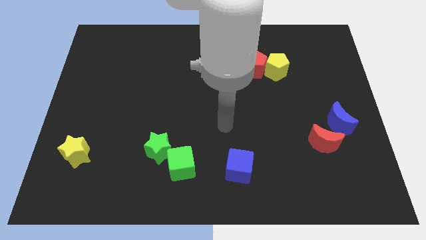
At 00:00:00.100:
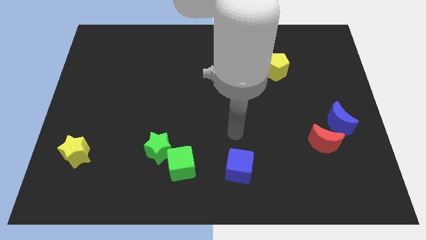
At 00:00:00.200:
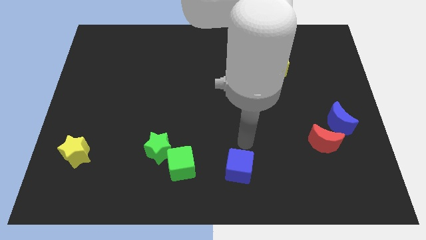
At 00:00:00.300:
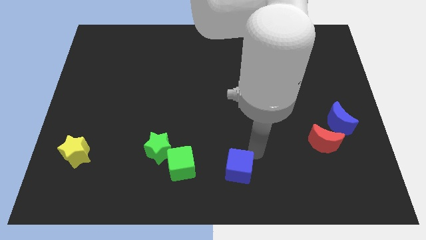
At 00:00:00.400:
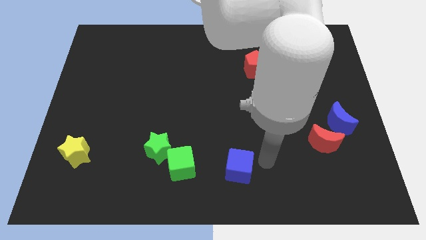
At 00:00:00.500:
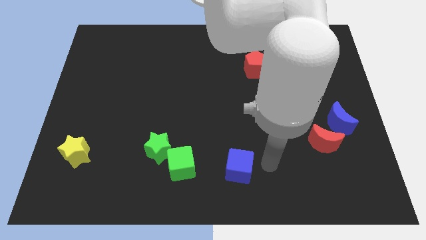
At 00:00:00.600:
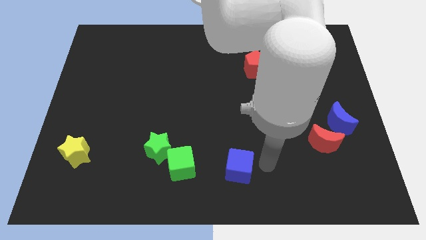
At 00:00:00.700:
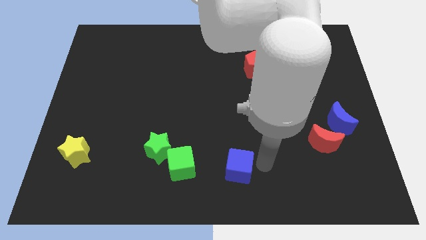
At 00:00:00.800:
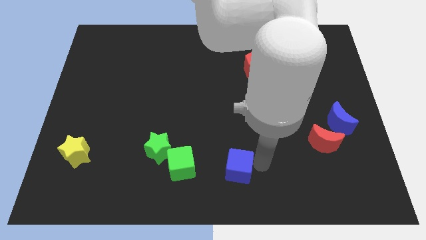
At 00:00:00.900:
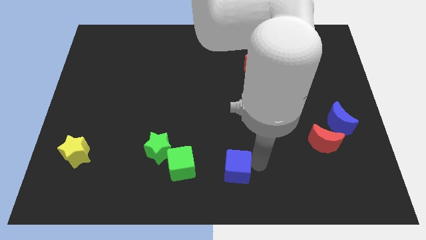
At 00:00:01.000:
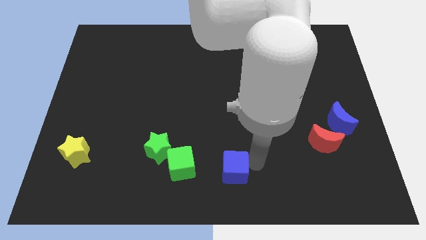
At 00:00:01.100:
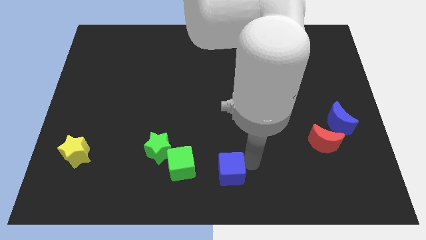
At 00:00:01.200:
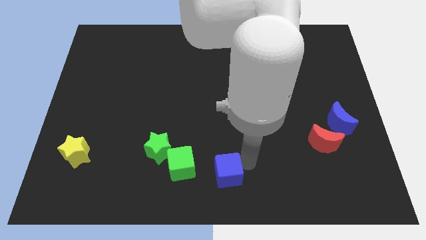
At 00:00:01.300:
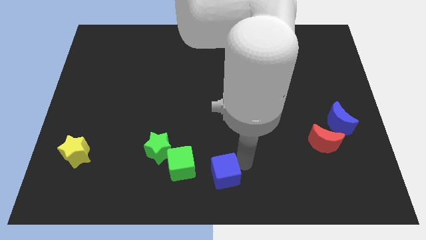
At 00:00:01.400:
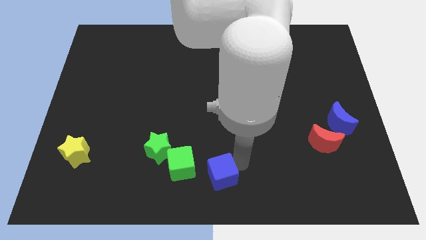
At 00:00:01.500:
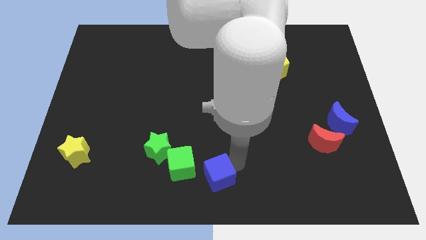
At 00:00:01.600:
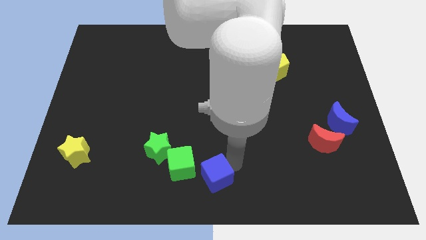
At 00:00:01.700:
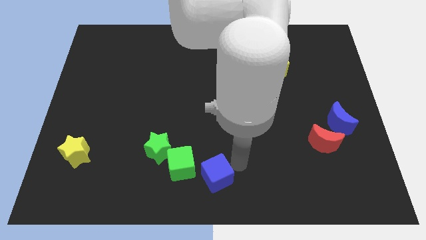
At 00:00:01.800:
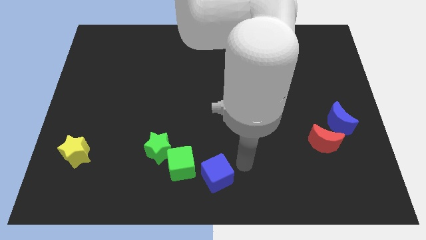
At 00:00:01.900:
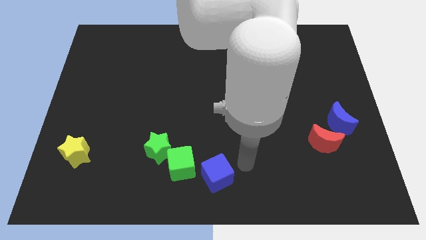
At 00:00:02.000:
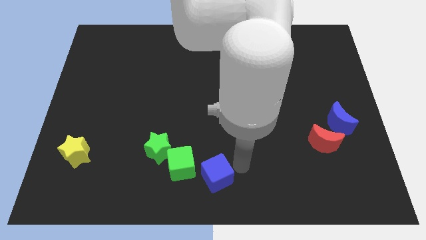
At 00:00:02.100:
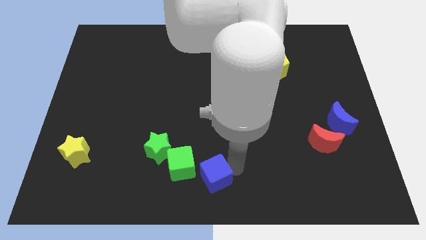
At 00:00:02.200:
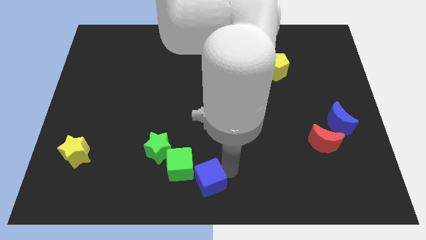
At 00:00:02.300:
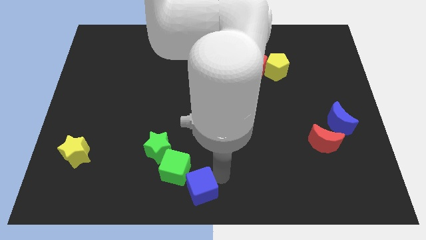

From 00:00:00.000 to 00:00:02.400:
slightly push the blue cube left

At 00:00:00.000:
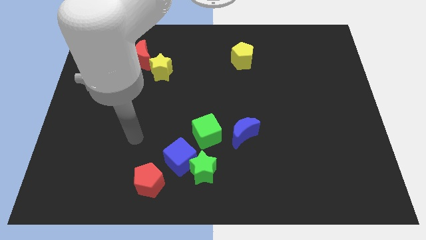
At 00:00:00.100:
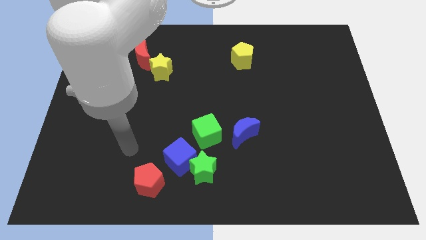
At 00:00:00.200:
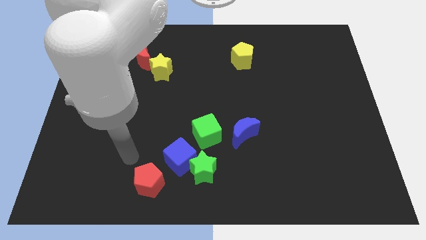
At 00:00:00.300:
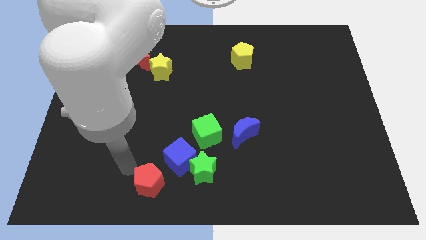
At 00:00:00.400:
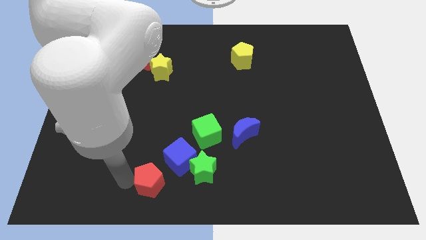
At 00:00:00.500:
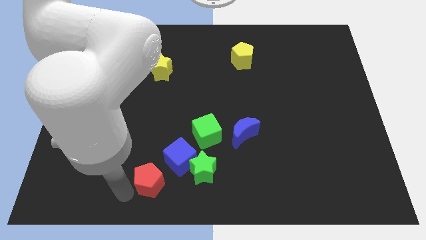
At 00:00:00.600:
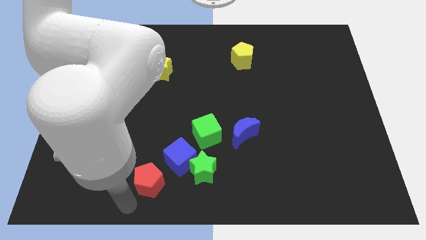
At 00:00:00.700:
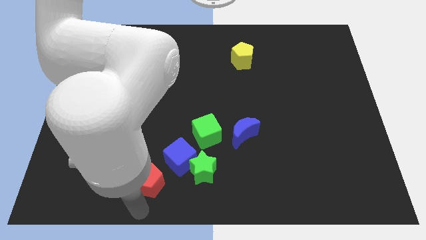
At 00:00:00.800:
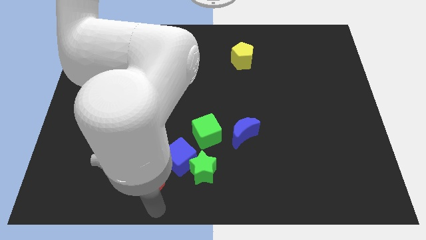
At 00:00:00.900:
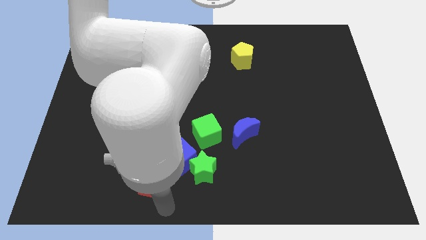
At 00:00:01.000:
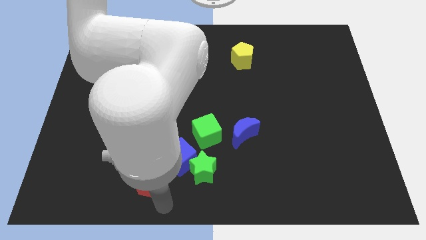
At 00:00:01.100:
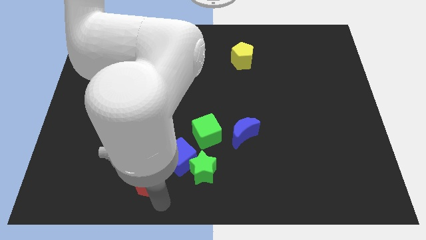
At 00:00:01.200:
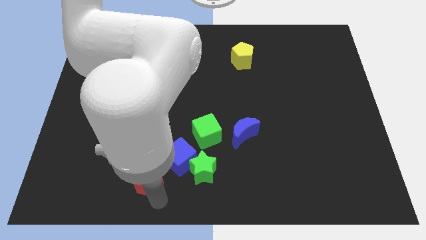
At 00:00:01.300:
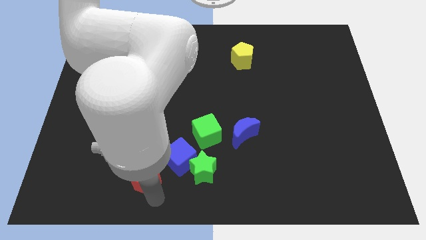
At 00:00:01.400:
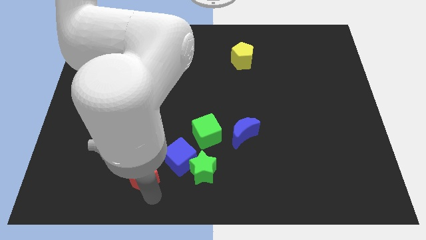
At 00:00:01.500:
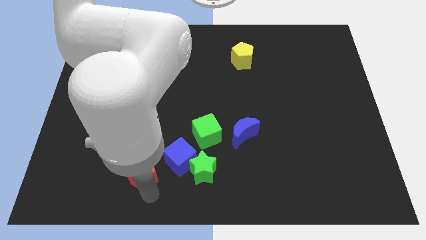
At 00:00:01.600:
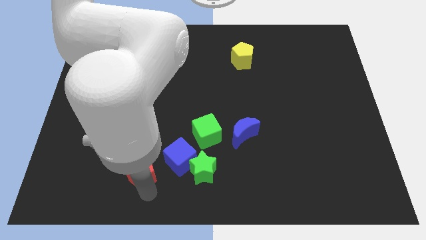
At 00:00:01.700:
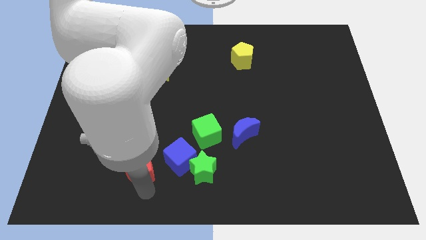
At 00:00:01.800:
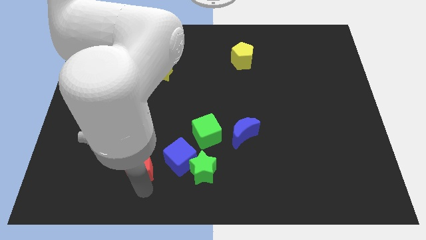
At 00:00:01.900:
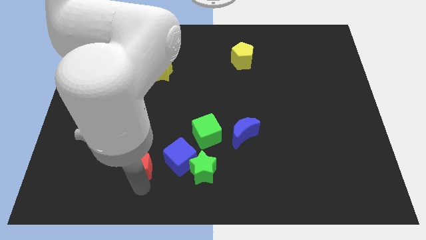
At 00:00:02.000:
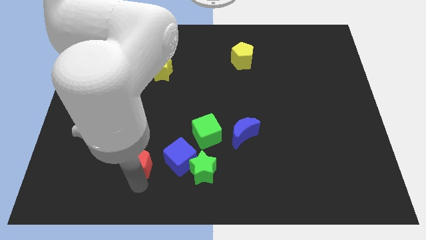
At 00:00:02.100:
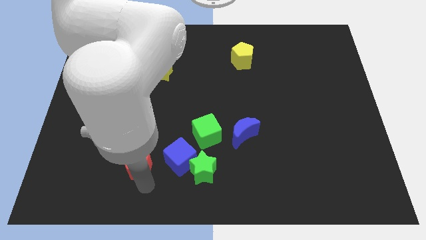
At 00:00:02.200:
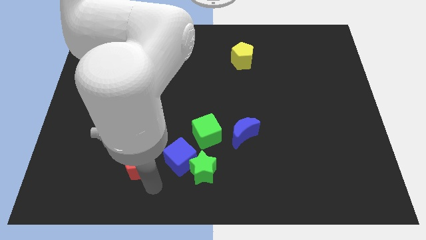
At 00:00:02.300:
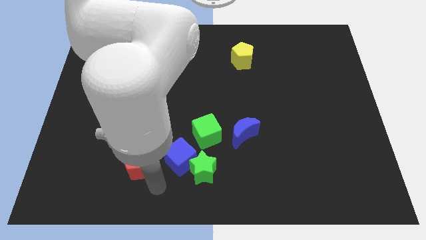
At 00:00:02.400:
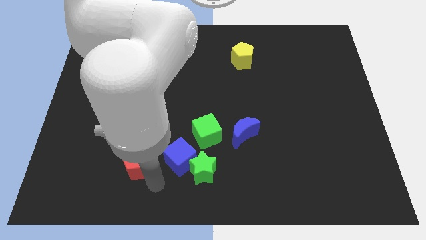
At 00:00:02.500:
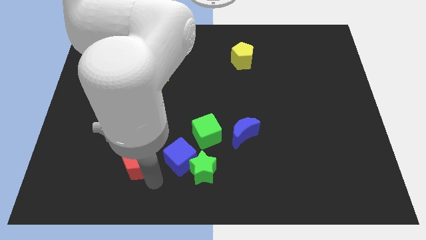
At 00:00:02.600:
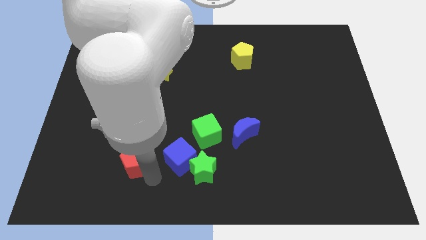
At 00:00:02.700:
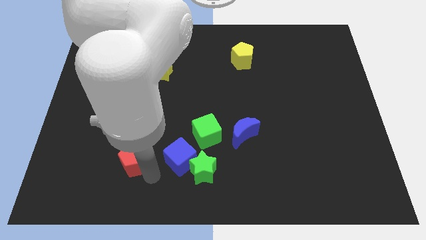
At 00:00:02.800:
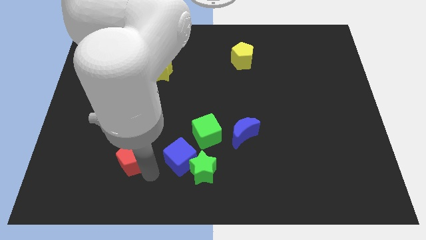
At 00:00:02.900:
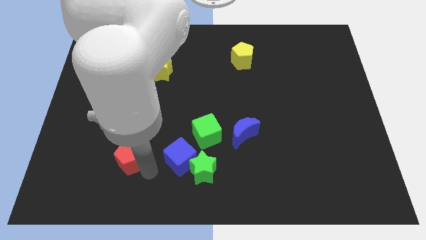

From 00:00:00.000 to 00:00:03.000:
slide the red pentagon a bit up and to the left

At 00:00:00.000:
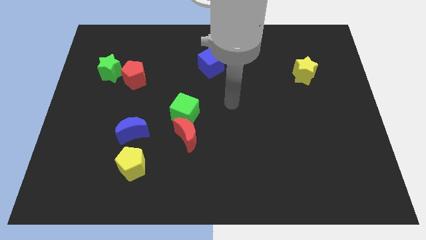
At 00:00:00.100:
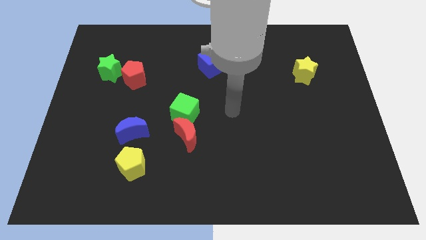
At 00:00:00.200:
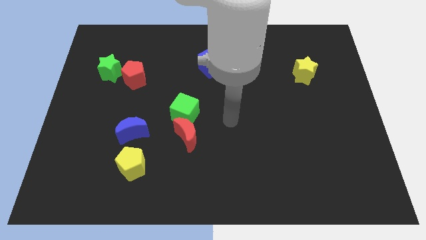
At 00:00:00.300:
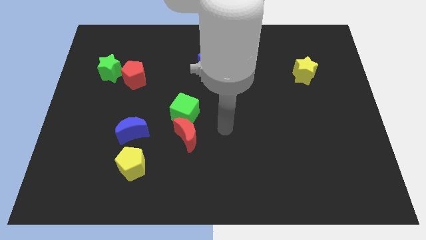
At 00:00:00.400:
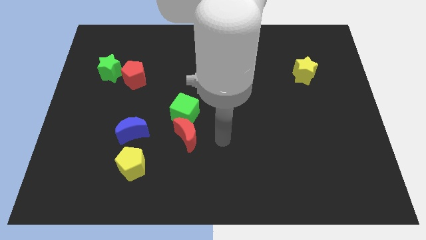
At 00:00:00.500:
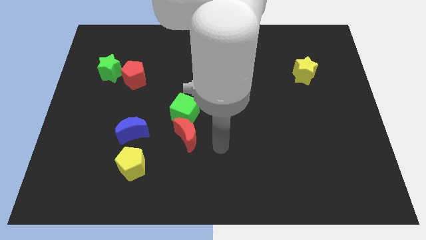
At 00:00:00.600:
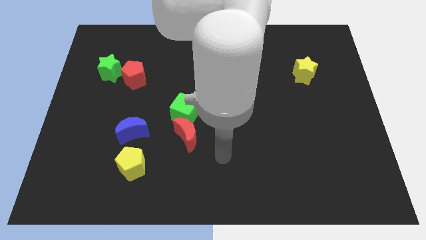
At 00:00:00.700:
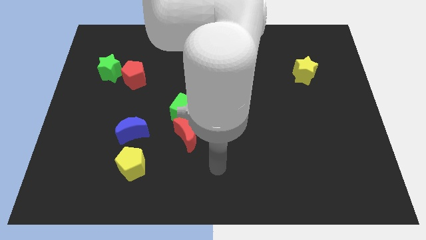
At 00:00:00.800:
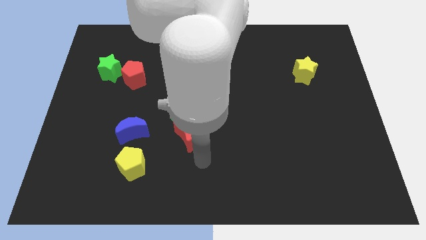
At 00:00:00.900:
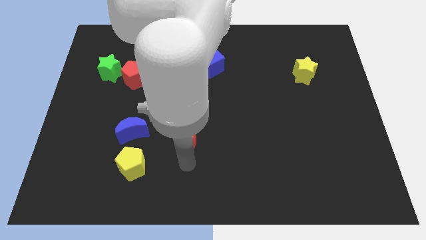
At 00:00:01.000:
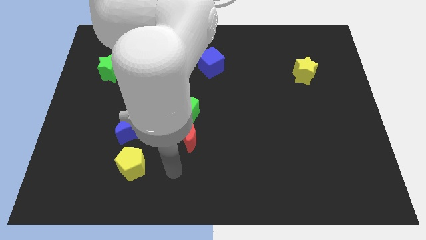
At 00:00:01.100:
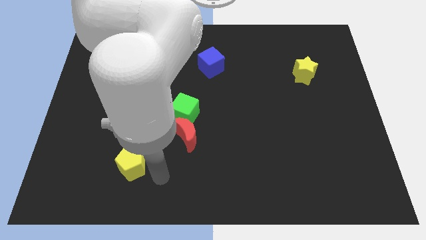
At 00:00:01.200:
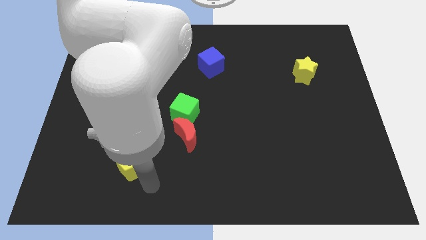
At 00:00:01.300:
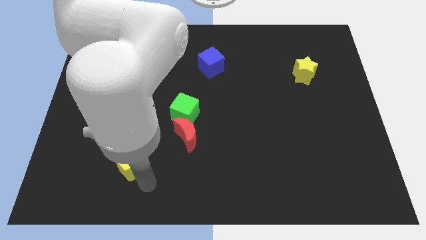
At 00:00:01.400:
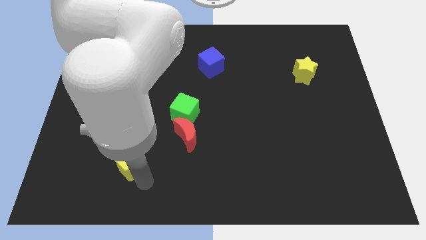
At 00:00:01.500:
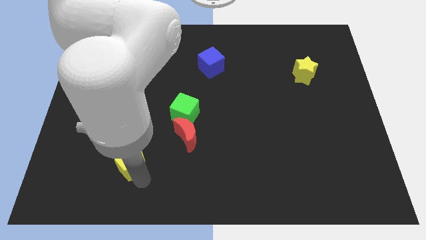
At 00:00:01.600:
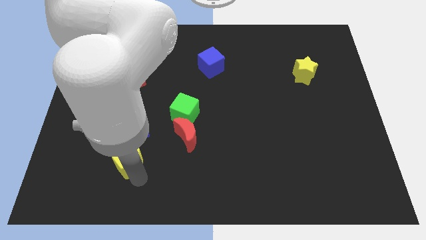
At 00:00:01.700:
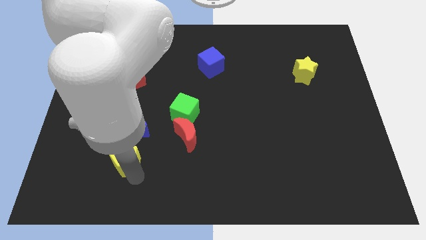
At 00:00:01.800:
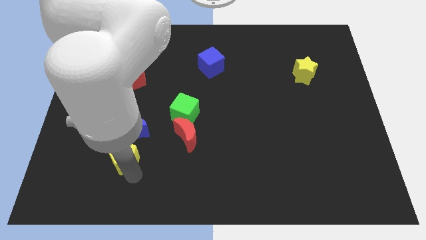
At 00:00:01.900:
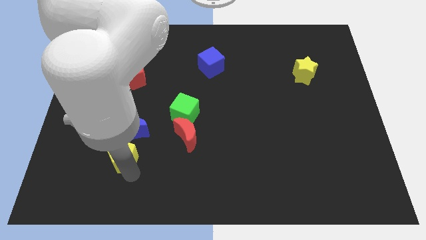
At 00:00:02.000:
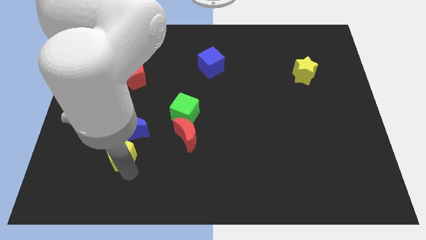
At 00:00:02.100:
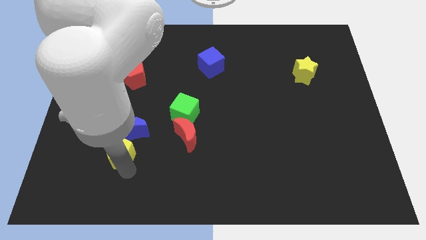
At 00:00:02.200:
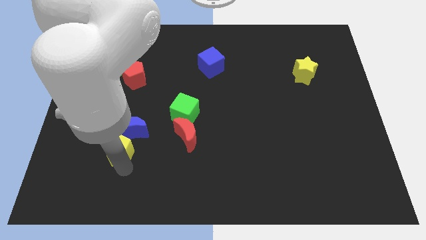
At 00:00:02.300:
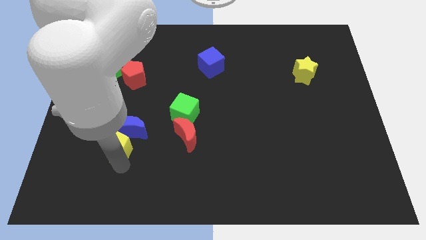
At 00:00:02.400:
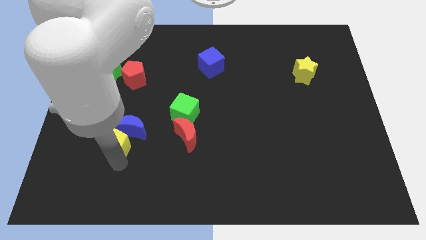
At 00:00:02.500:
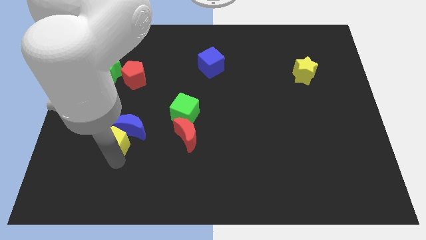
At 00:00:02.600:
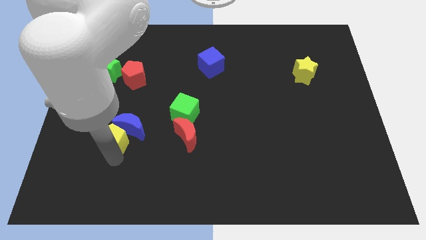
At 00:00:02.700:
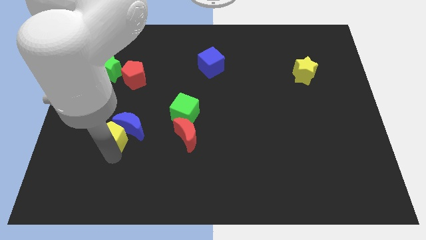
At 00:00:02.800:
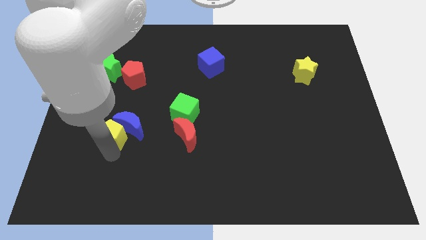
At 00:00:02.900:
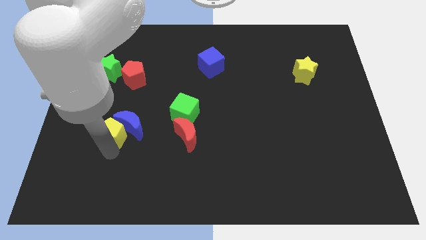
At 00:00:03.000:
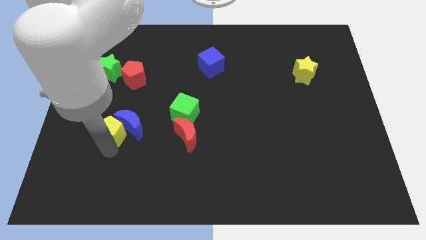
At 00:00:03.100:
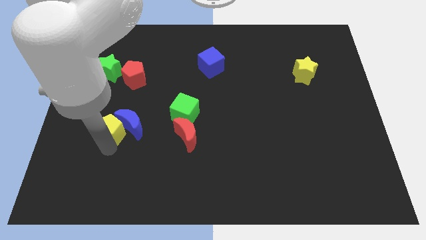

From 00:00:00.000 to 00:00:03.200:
move the yellow pentagon upwards slightly
